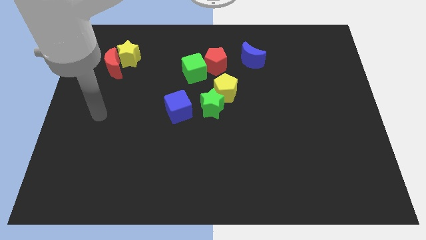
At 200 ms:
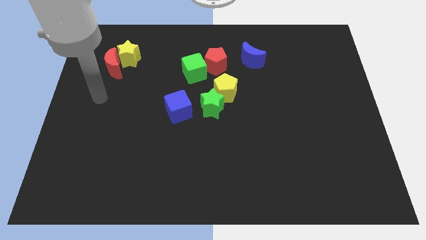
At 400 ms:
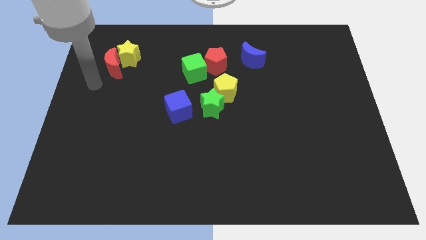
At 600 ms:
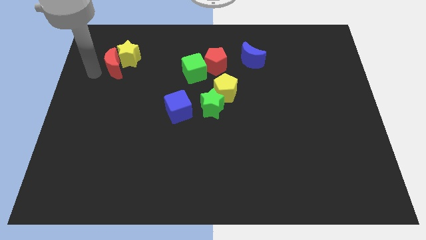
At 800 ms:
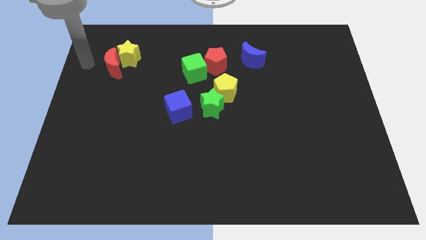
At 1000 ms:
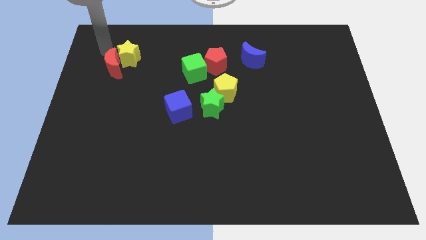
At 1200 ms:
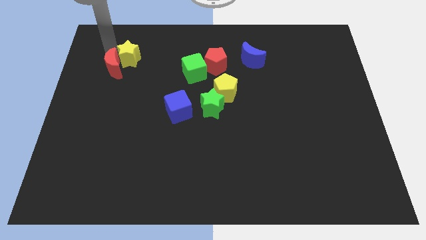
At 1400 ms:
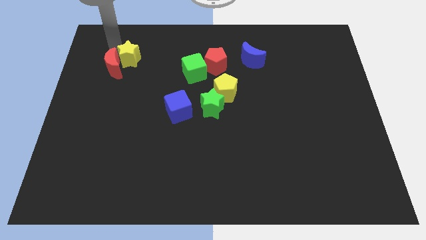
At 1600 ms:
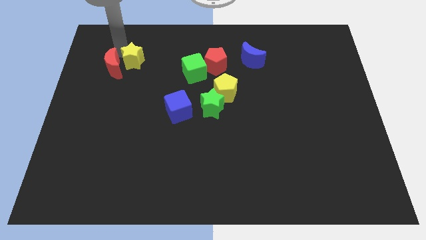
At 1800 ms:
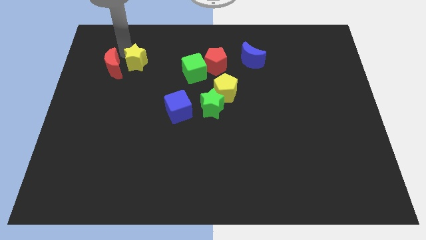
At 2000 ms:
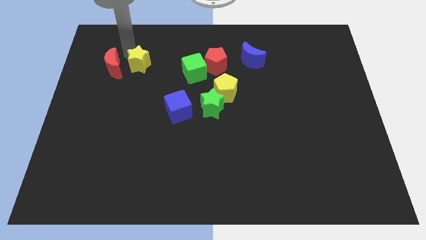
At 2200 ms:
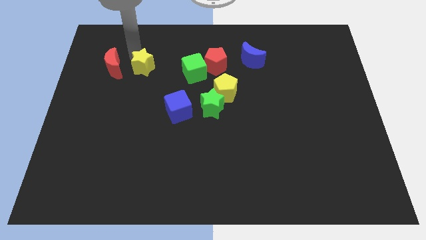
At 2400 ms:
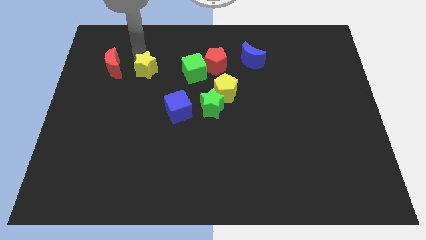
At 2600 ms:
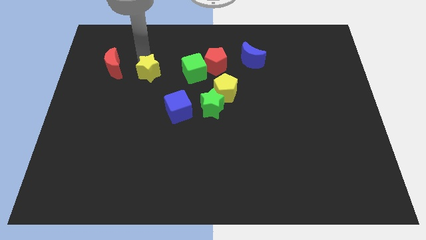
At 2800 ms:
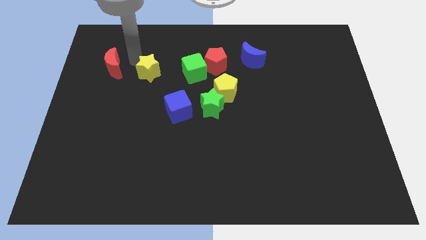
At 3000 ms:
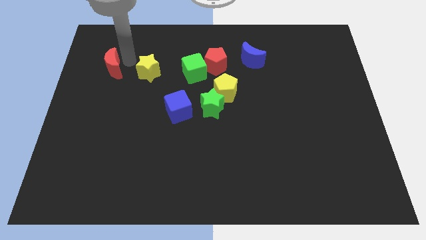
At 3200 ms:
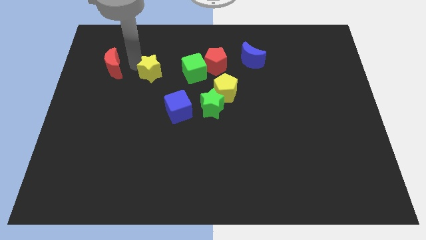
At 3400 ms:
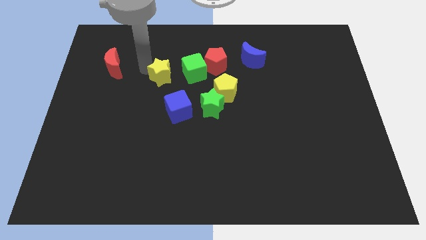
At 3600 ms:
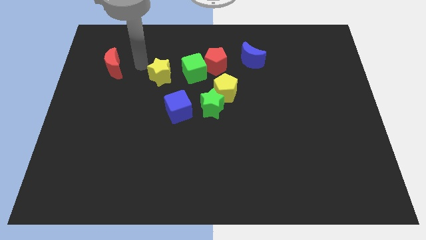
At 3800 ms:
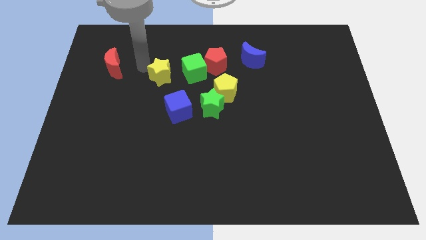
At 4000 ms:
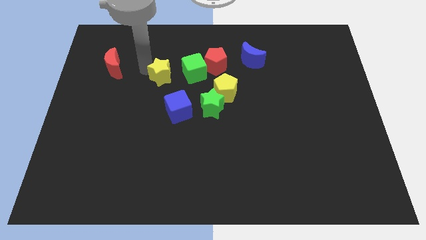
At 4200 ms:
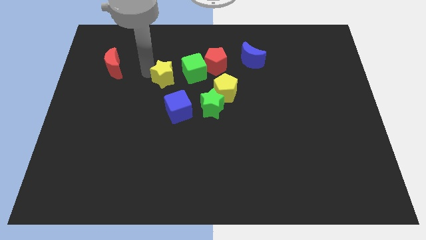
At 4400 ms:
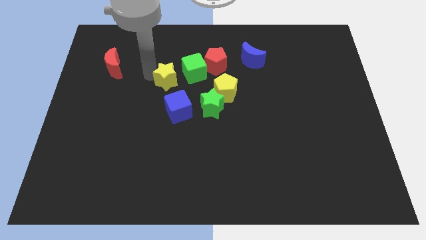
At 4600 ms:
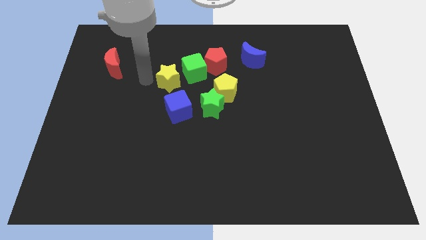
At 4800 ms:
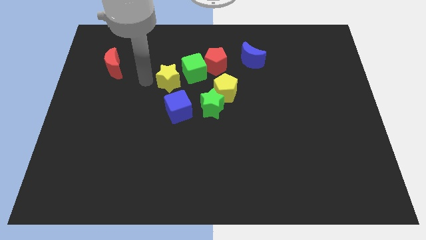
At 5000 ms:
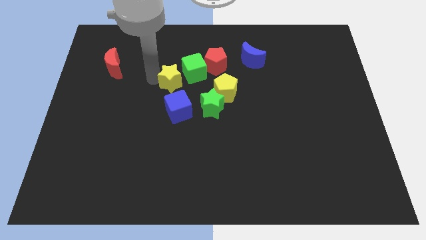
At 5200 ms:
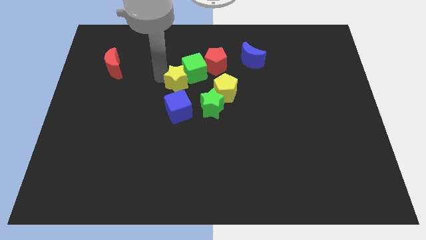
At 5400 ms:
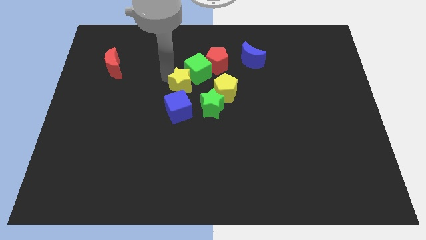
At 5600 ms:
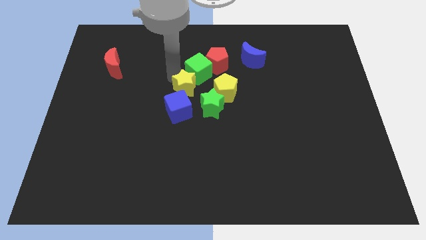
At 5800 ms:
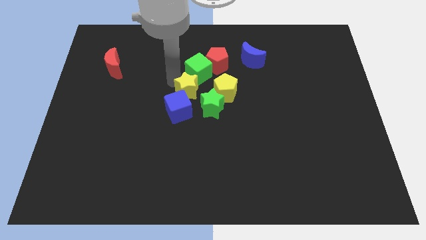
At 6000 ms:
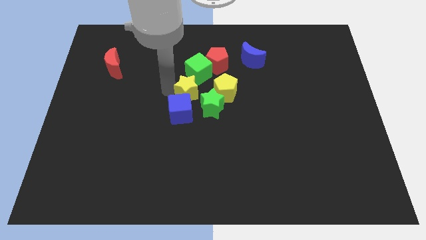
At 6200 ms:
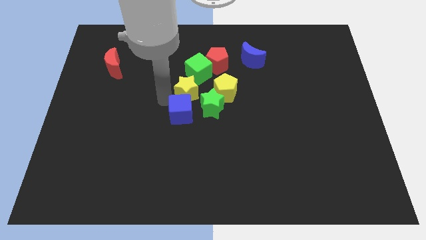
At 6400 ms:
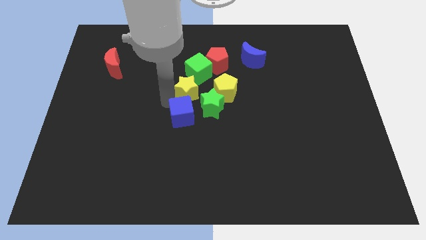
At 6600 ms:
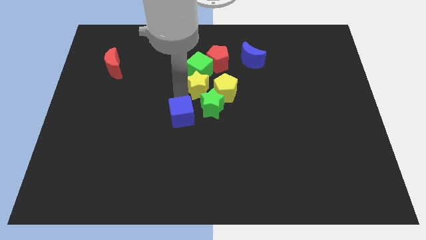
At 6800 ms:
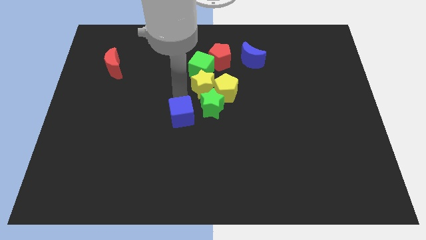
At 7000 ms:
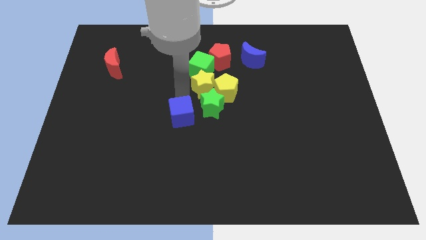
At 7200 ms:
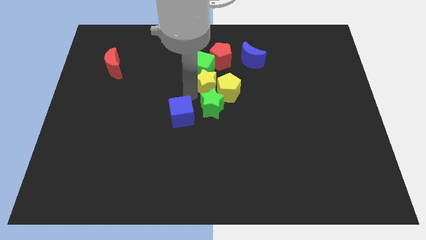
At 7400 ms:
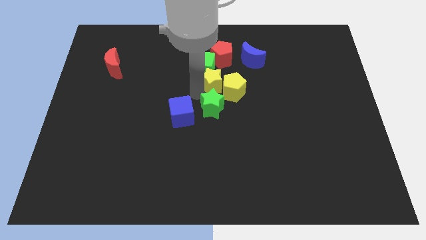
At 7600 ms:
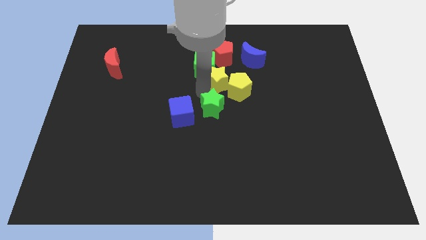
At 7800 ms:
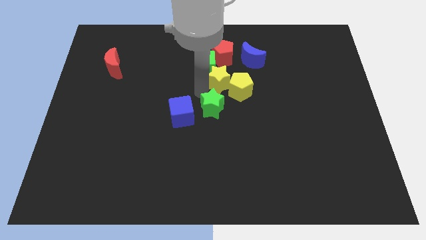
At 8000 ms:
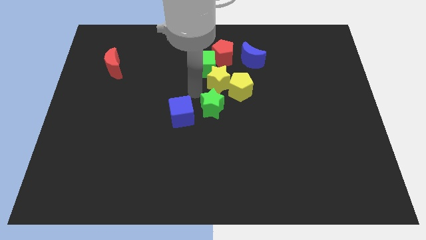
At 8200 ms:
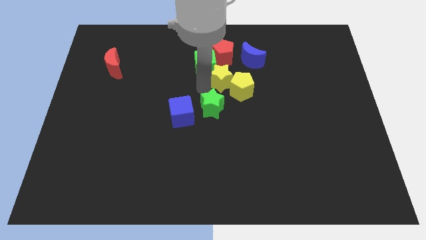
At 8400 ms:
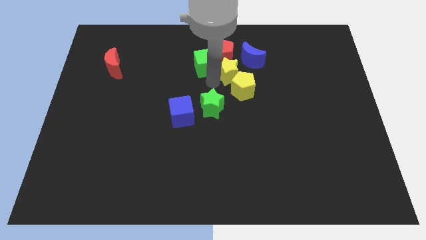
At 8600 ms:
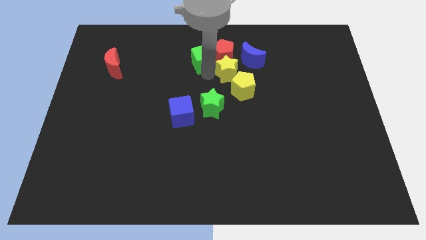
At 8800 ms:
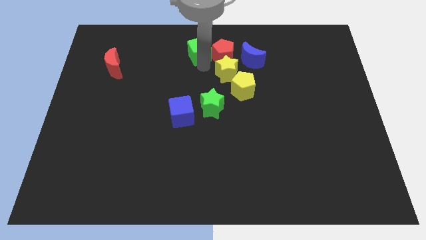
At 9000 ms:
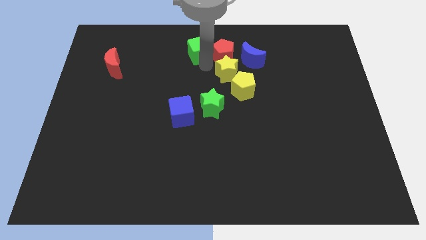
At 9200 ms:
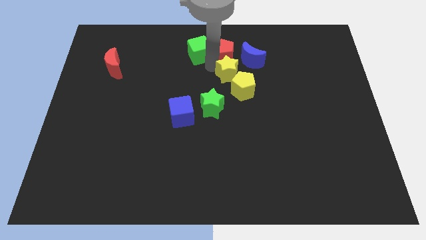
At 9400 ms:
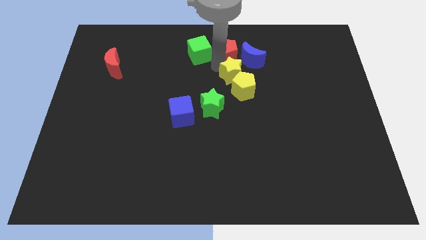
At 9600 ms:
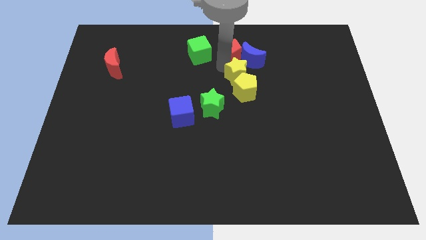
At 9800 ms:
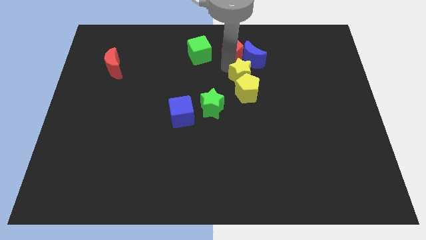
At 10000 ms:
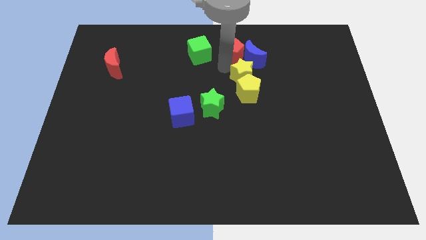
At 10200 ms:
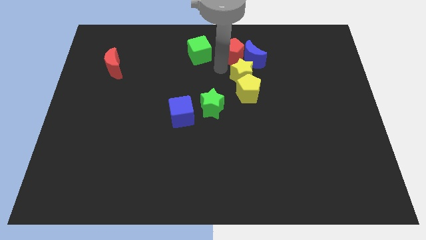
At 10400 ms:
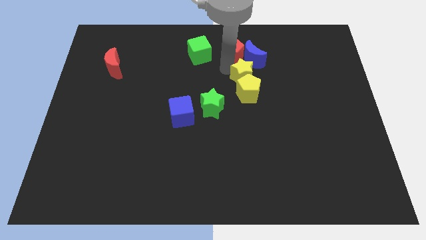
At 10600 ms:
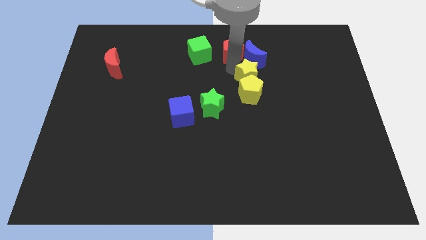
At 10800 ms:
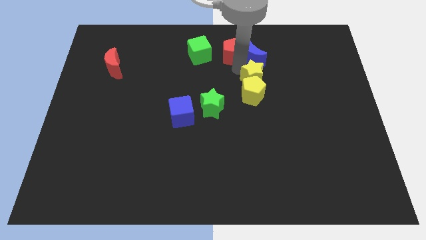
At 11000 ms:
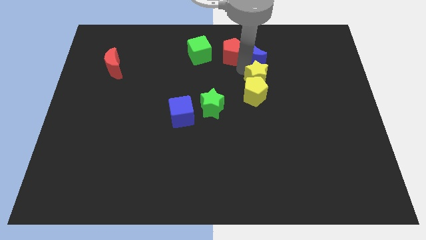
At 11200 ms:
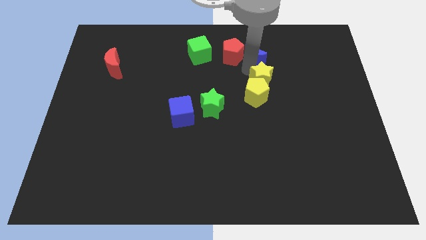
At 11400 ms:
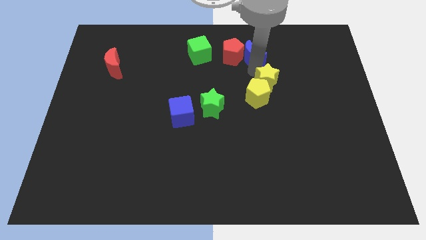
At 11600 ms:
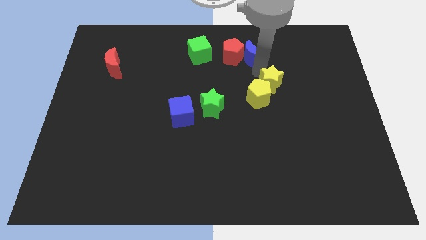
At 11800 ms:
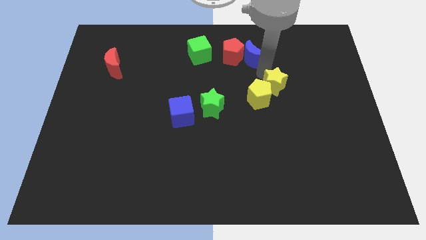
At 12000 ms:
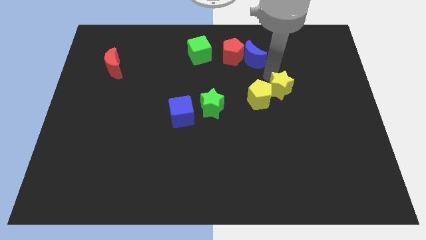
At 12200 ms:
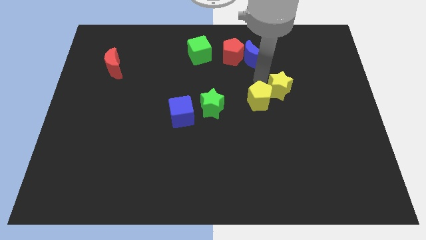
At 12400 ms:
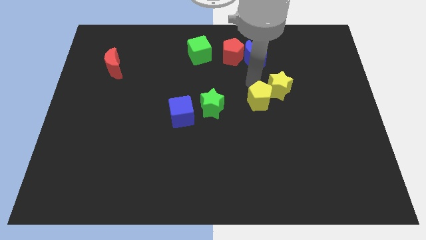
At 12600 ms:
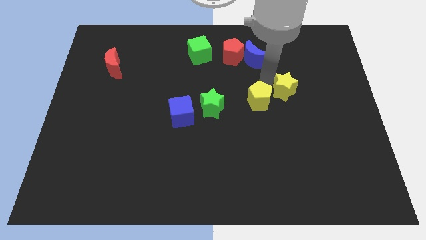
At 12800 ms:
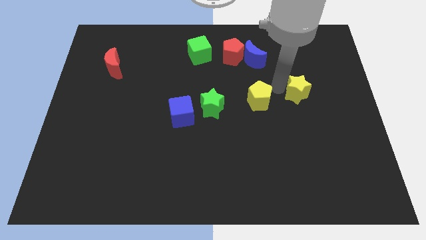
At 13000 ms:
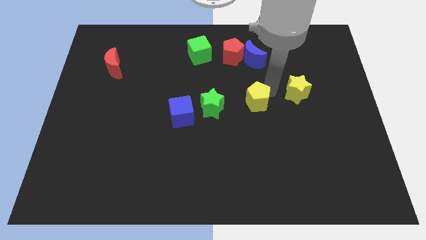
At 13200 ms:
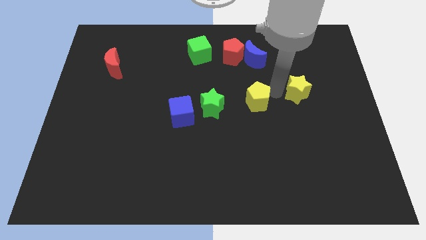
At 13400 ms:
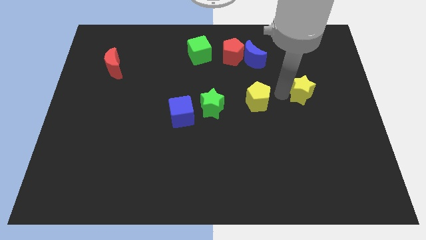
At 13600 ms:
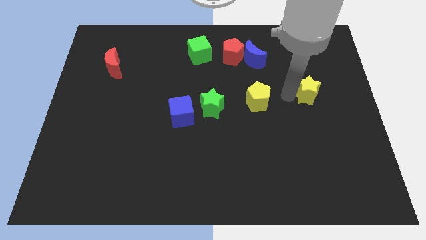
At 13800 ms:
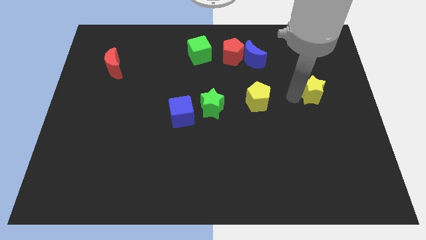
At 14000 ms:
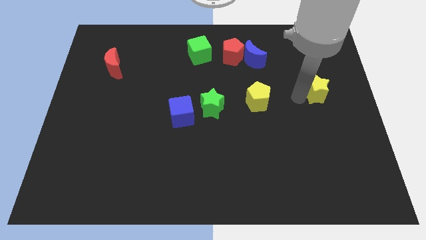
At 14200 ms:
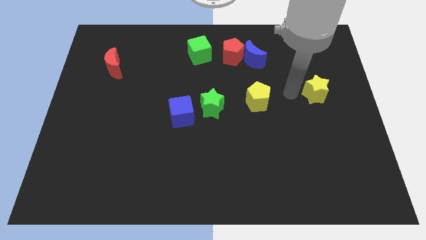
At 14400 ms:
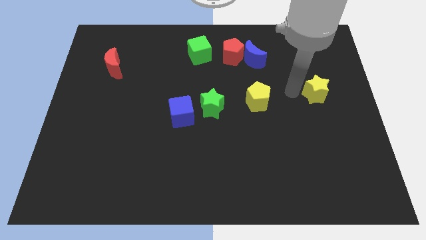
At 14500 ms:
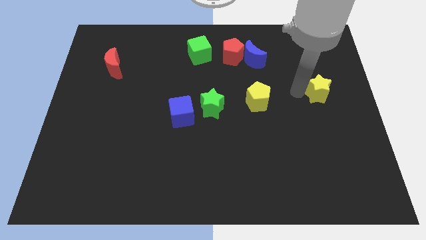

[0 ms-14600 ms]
put the yellow star to the center right
